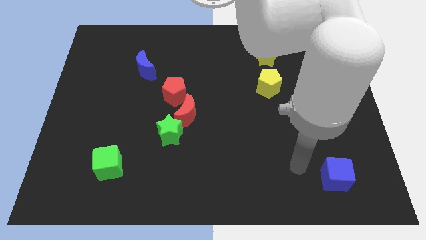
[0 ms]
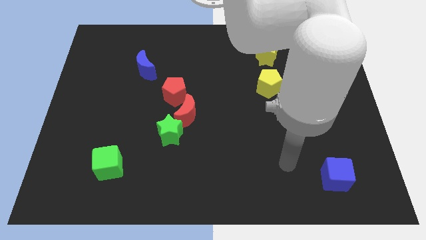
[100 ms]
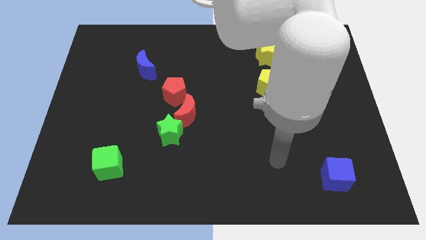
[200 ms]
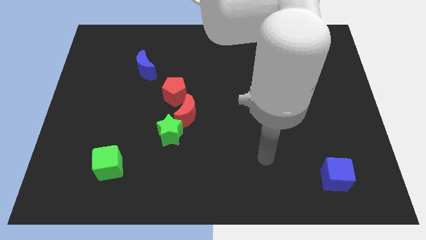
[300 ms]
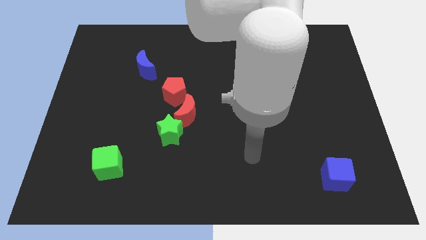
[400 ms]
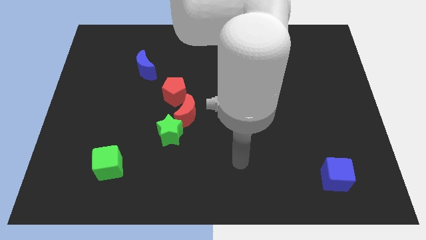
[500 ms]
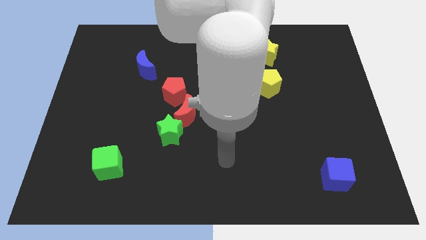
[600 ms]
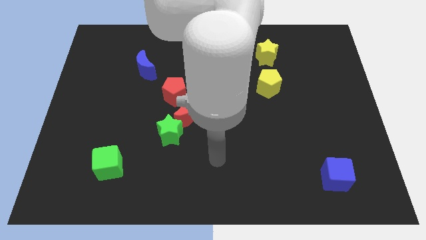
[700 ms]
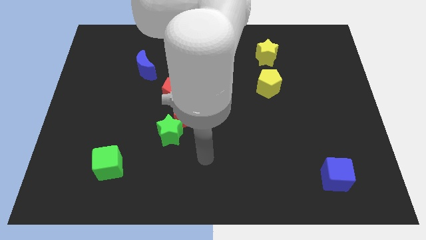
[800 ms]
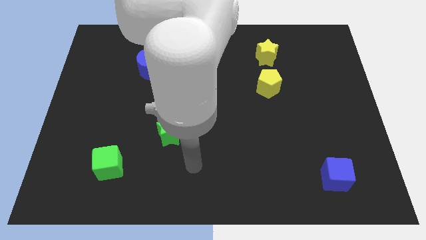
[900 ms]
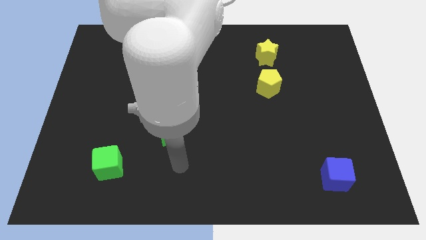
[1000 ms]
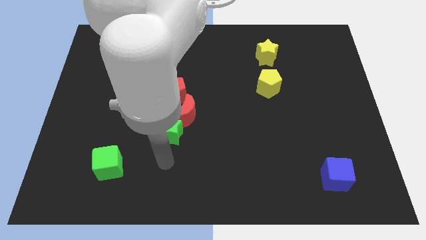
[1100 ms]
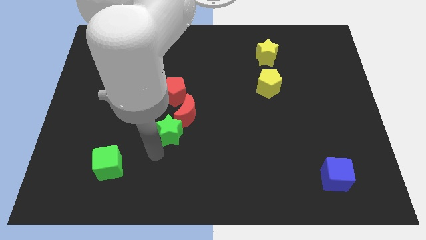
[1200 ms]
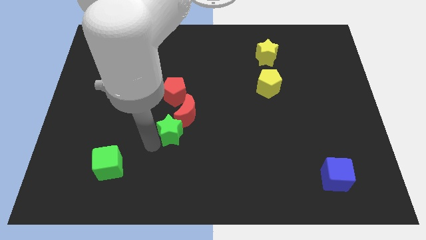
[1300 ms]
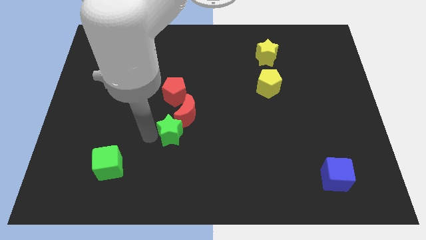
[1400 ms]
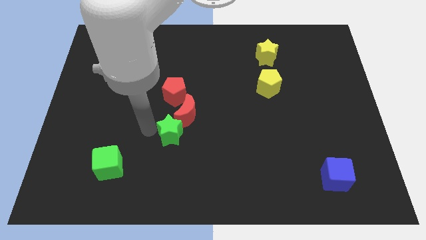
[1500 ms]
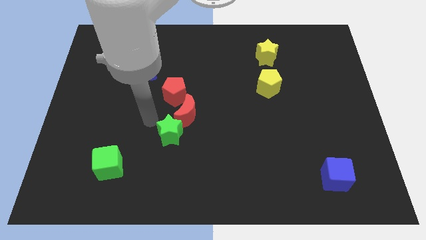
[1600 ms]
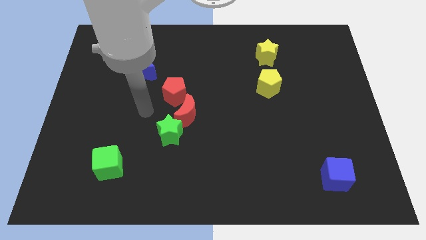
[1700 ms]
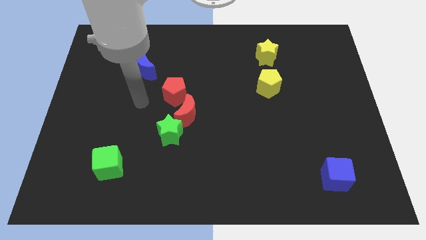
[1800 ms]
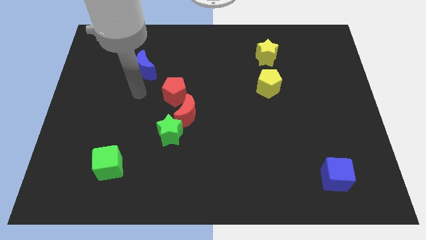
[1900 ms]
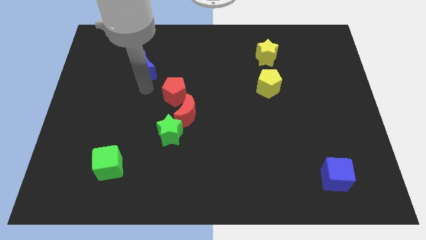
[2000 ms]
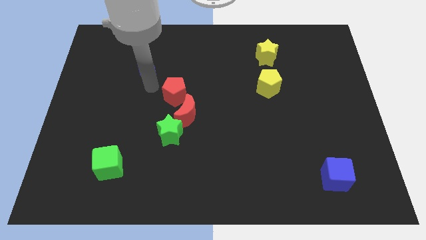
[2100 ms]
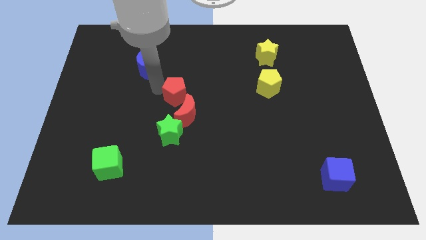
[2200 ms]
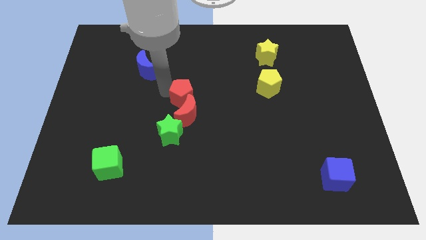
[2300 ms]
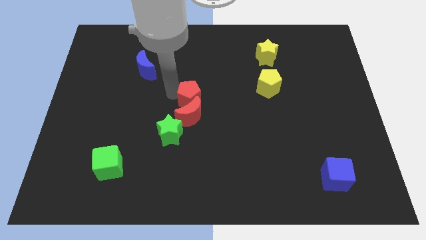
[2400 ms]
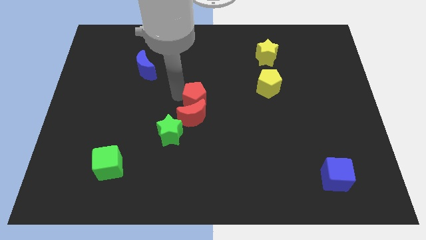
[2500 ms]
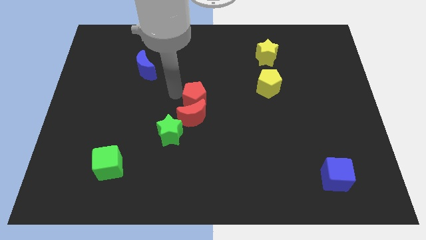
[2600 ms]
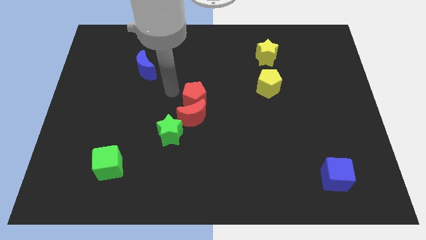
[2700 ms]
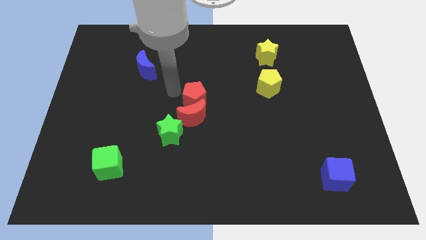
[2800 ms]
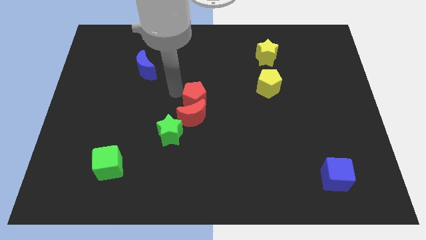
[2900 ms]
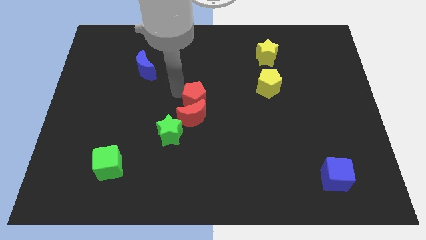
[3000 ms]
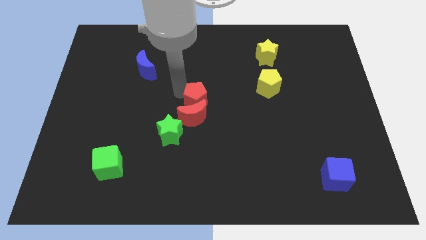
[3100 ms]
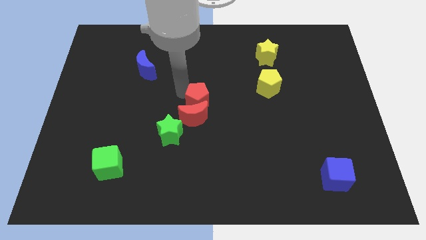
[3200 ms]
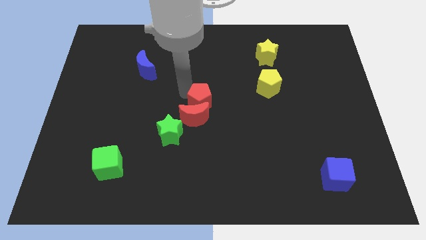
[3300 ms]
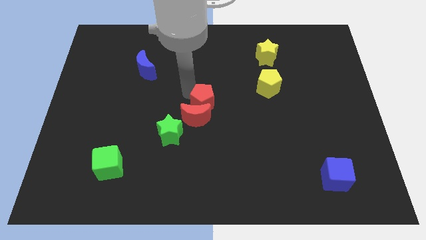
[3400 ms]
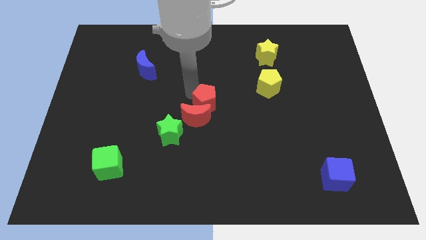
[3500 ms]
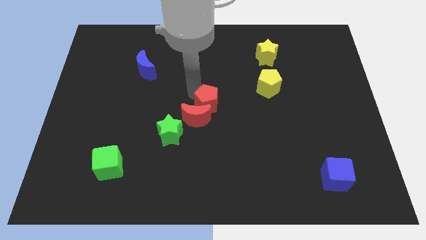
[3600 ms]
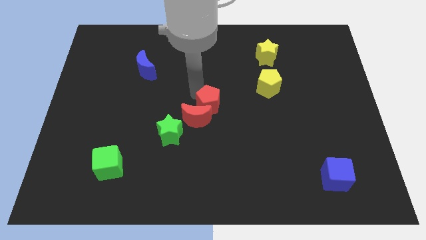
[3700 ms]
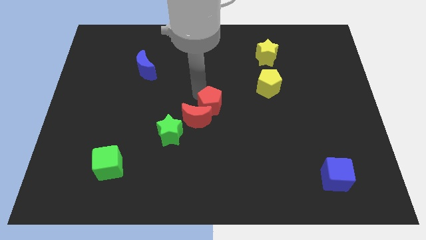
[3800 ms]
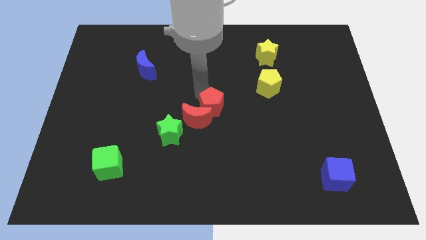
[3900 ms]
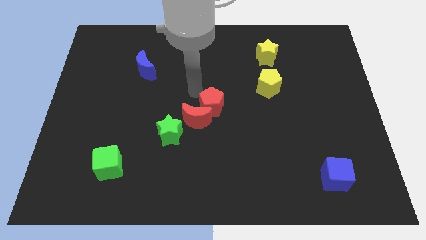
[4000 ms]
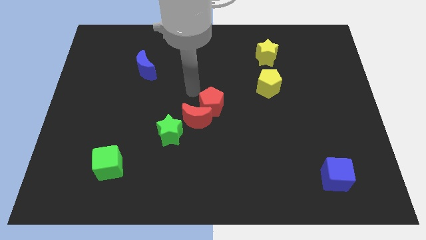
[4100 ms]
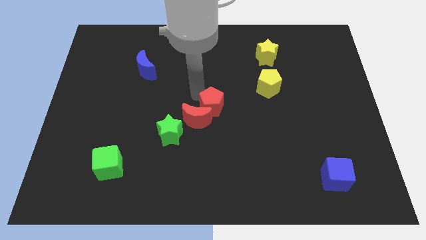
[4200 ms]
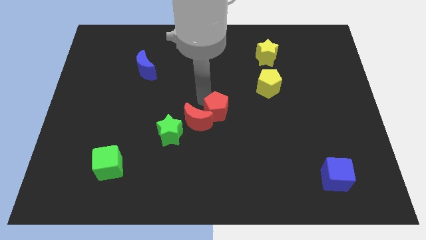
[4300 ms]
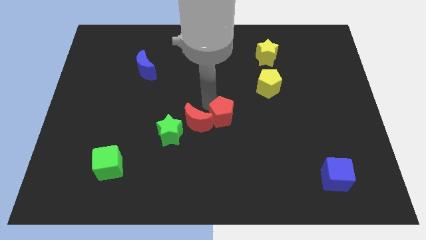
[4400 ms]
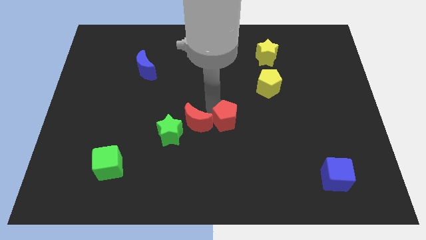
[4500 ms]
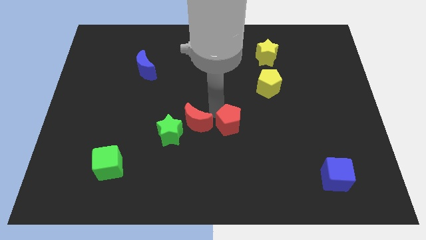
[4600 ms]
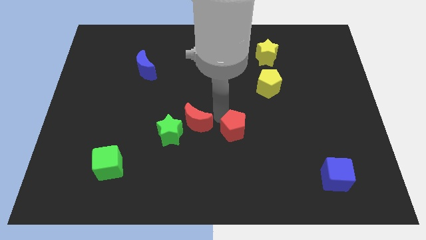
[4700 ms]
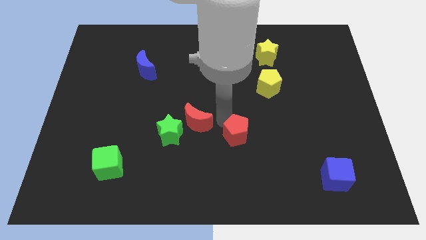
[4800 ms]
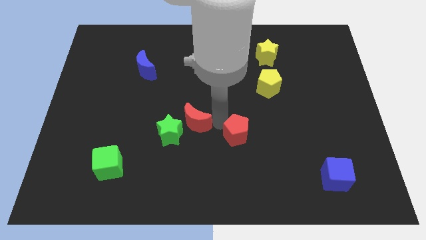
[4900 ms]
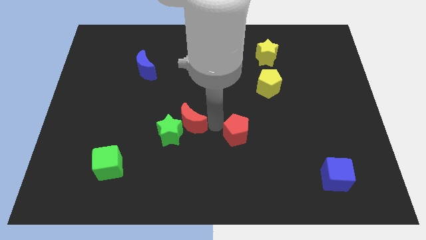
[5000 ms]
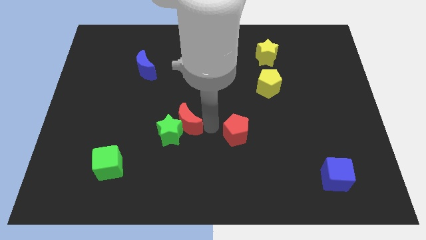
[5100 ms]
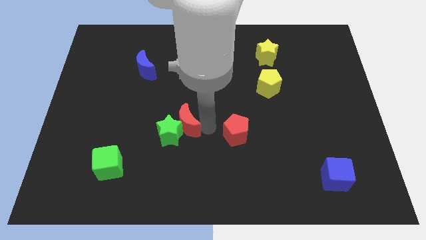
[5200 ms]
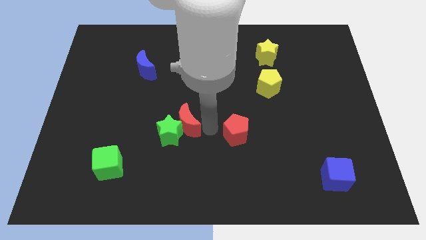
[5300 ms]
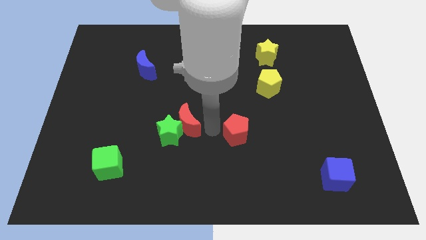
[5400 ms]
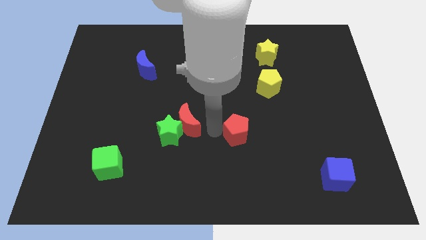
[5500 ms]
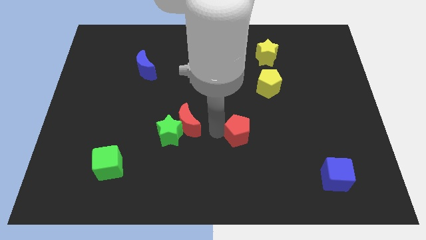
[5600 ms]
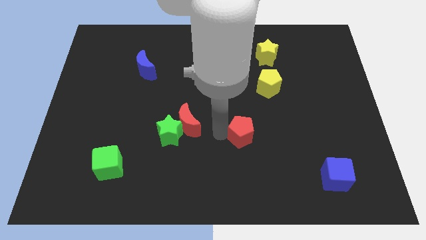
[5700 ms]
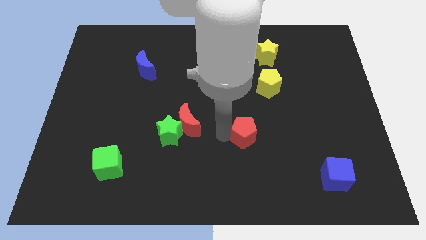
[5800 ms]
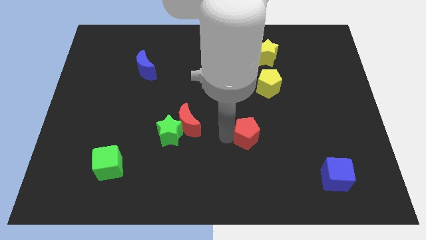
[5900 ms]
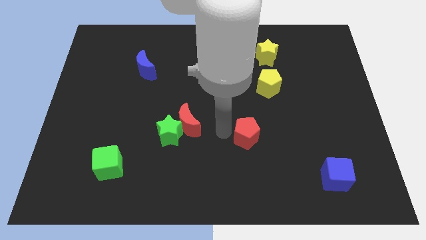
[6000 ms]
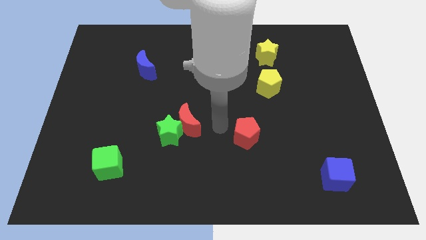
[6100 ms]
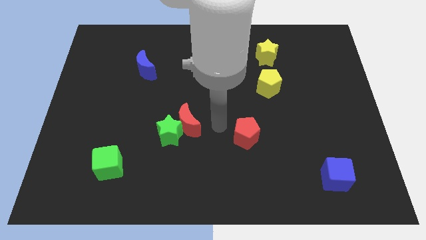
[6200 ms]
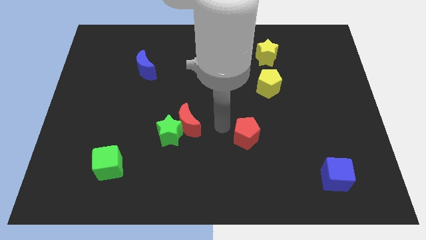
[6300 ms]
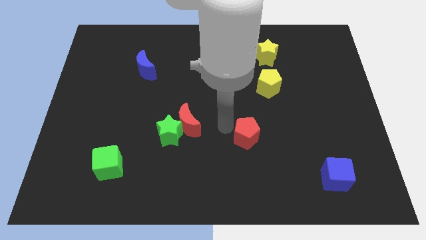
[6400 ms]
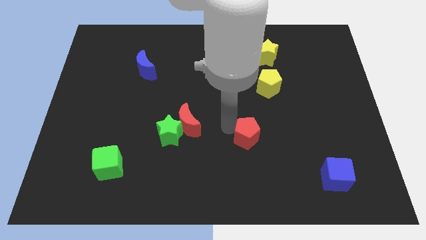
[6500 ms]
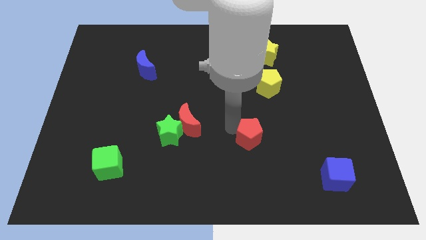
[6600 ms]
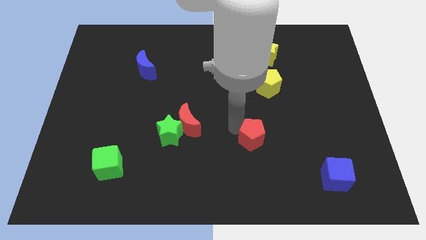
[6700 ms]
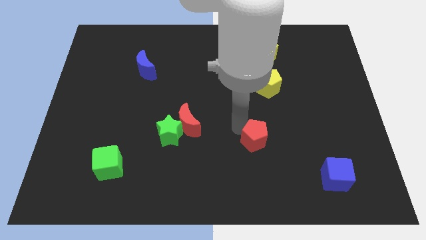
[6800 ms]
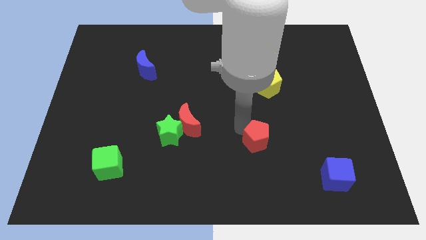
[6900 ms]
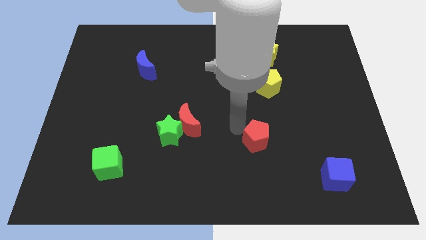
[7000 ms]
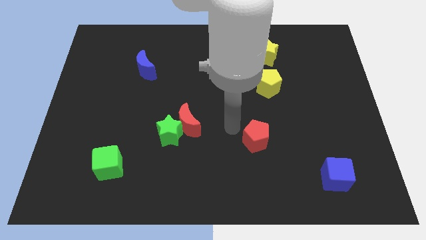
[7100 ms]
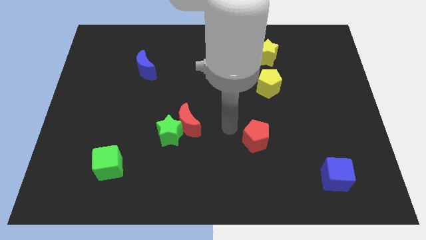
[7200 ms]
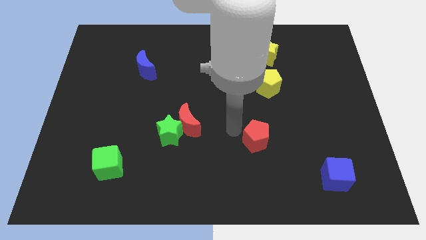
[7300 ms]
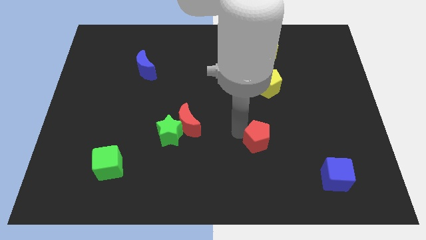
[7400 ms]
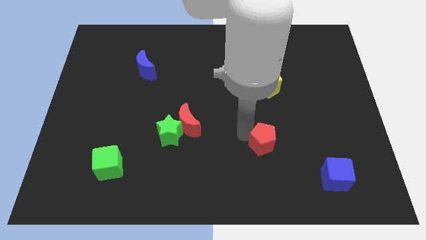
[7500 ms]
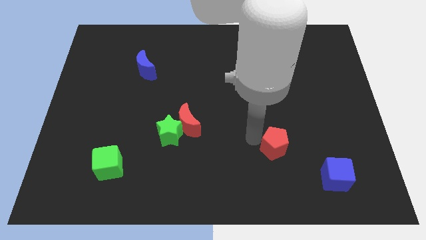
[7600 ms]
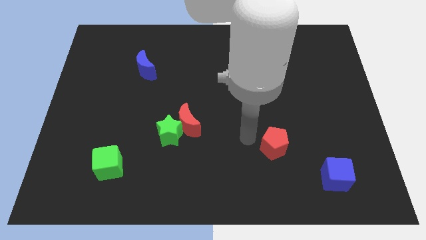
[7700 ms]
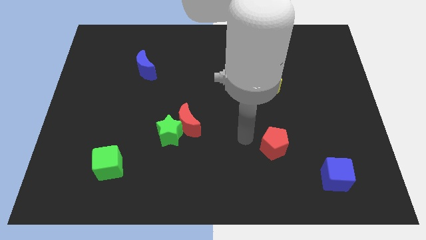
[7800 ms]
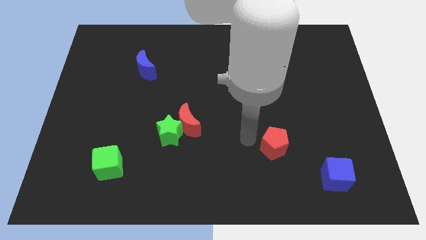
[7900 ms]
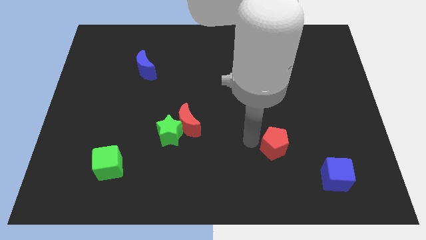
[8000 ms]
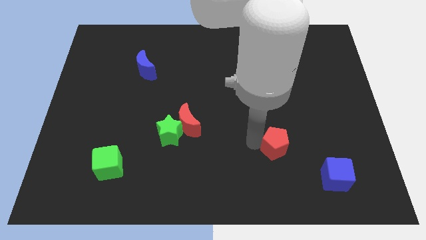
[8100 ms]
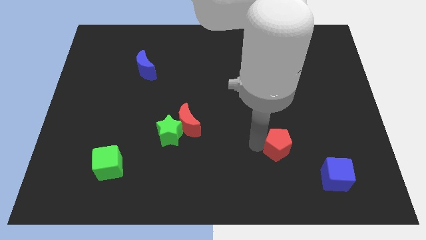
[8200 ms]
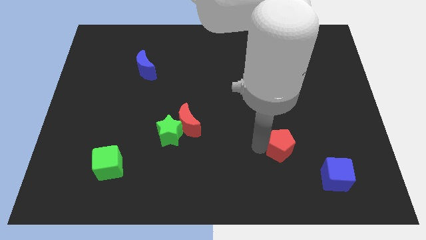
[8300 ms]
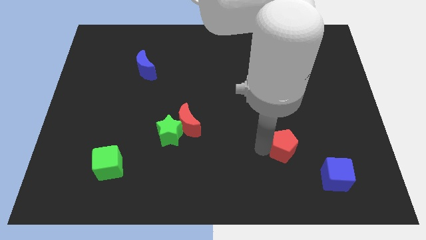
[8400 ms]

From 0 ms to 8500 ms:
move the red pentagon to the top left side of the blue cube

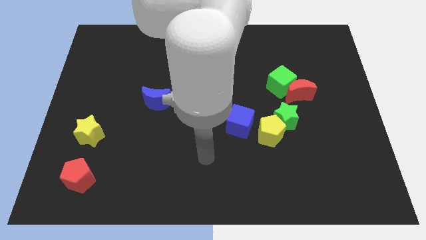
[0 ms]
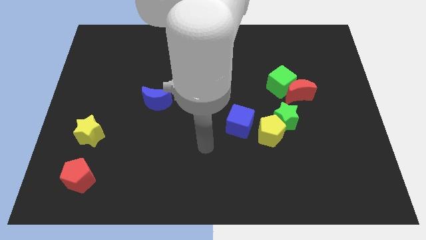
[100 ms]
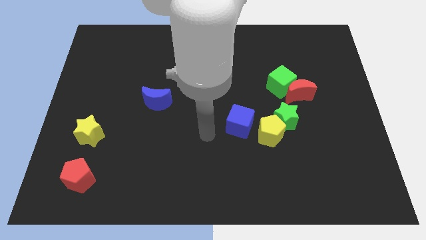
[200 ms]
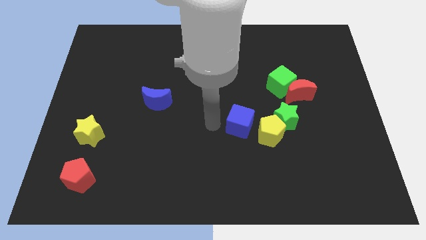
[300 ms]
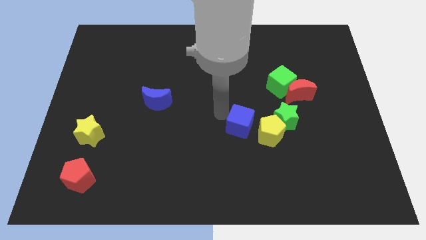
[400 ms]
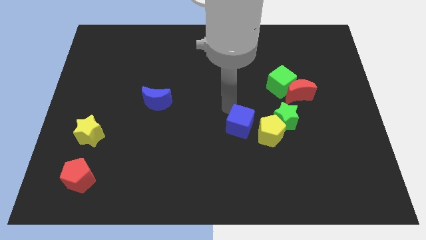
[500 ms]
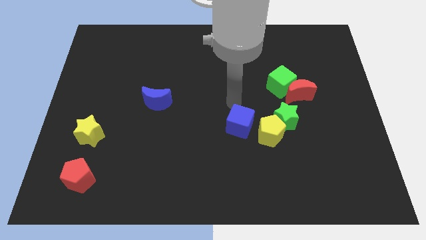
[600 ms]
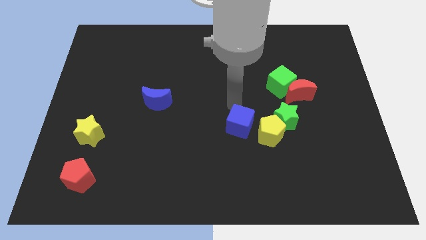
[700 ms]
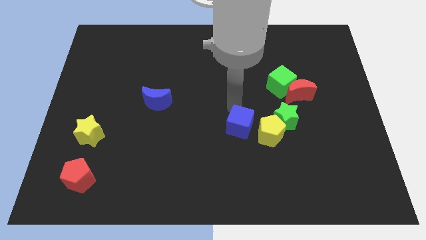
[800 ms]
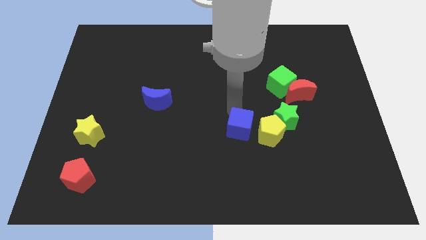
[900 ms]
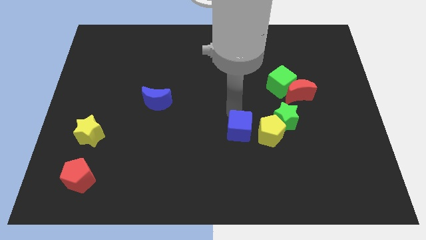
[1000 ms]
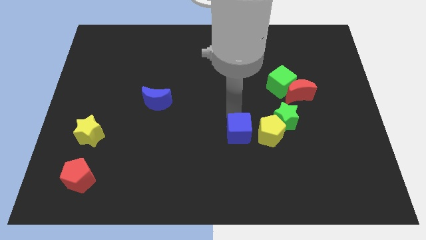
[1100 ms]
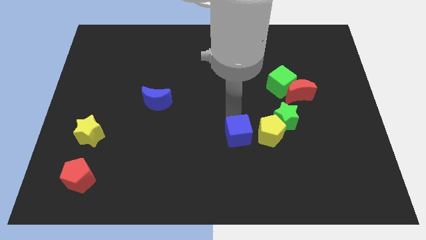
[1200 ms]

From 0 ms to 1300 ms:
move the blue cube to the bottom left side of the yellow pentagon
